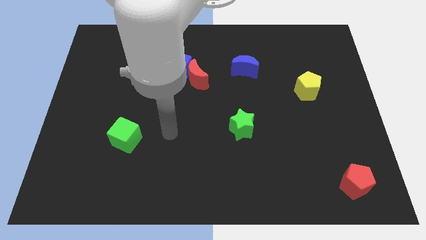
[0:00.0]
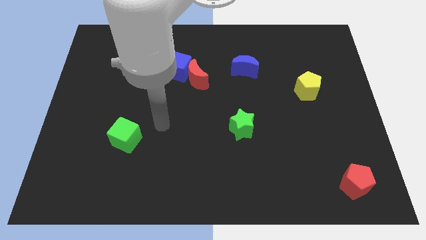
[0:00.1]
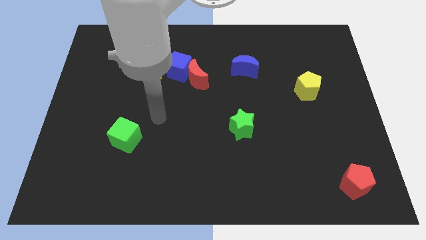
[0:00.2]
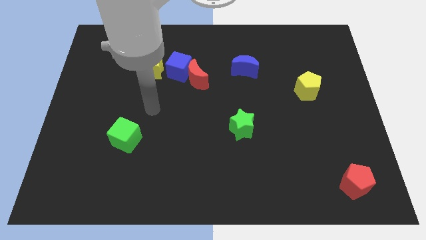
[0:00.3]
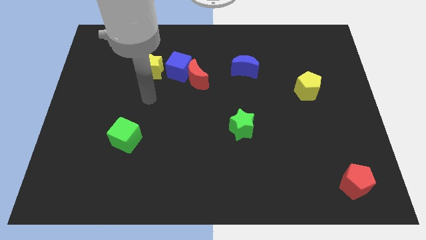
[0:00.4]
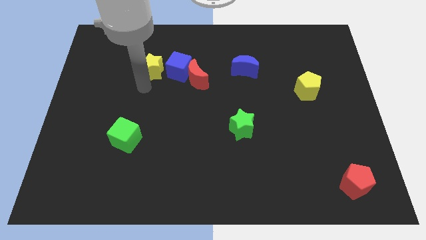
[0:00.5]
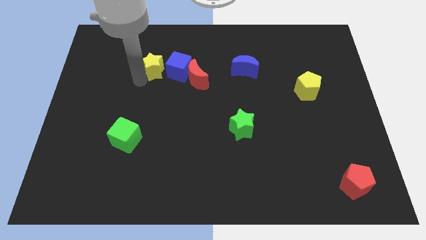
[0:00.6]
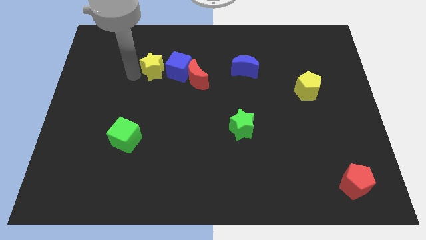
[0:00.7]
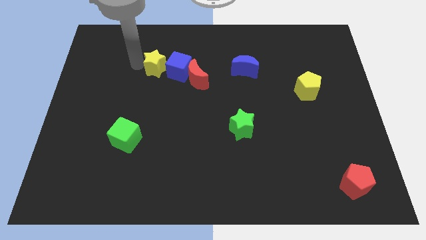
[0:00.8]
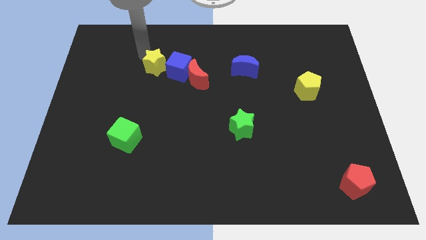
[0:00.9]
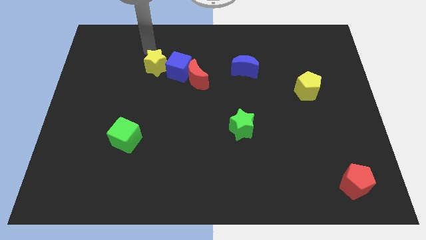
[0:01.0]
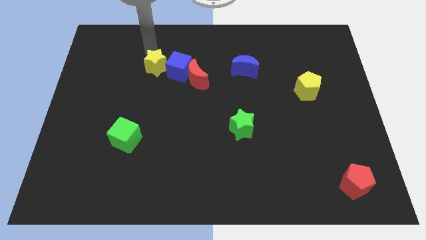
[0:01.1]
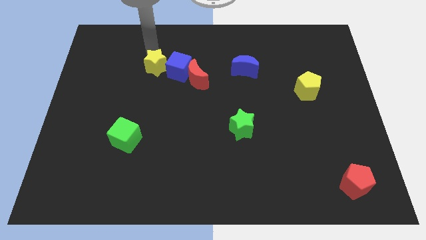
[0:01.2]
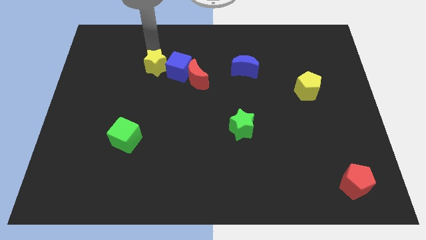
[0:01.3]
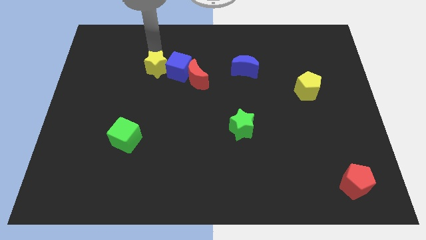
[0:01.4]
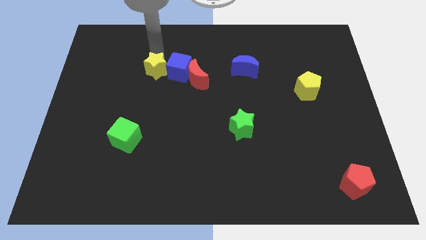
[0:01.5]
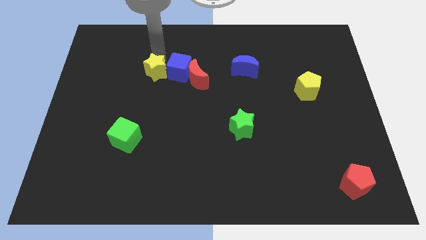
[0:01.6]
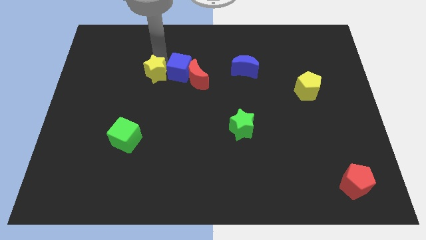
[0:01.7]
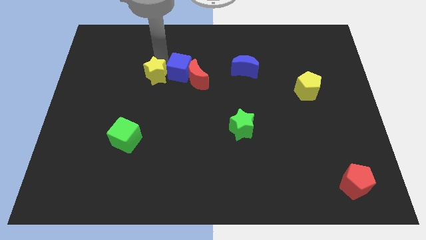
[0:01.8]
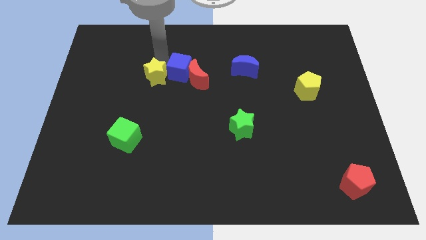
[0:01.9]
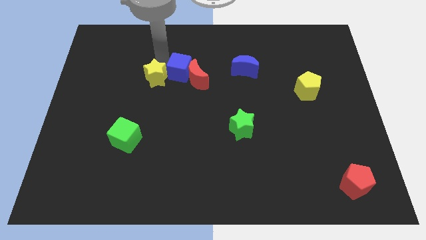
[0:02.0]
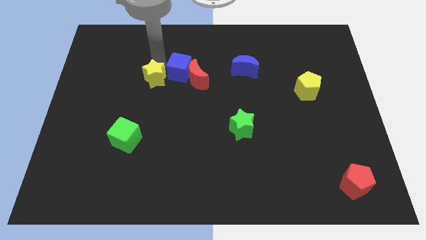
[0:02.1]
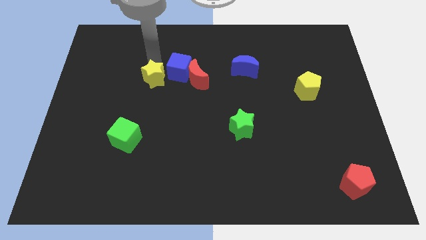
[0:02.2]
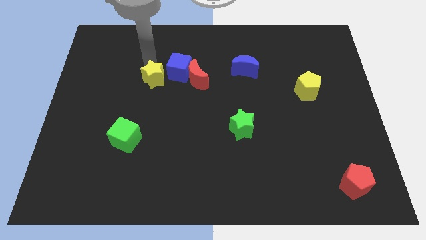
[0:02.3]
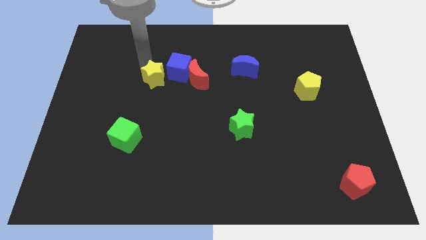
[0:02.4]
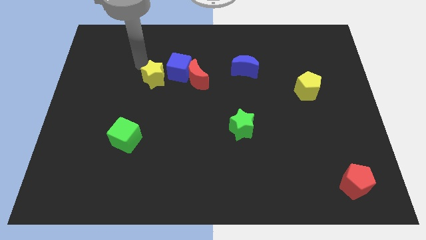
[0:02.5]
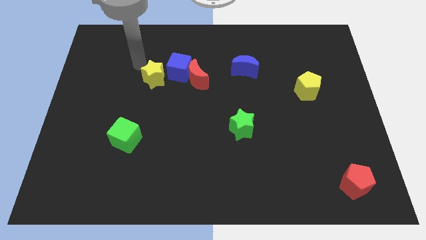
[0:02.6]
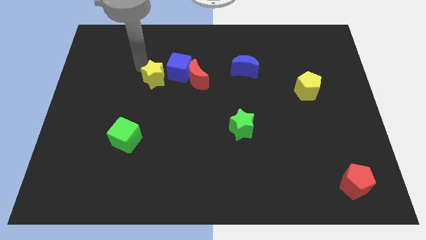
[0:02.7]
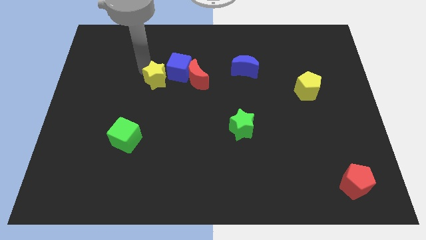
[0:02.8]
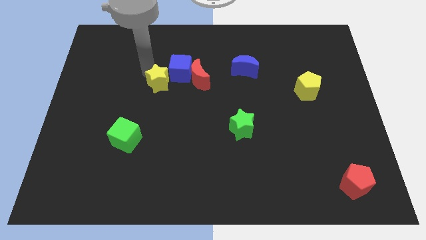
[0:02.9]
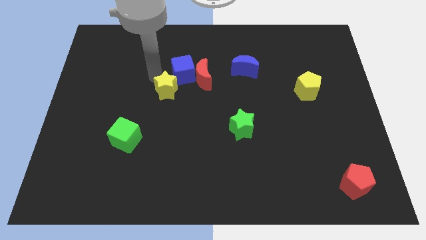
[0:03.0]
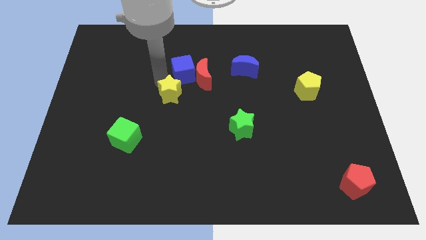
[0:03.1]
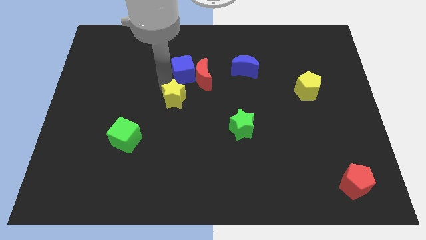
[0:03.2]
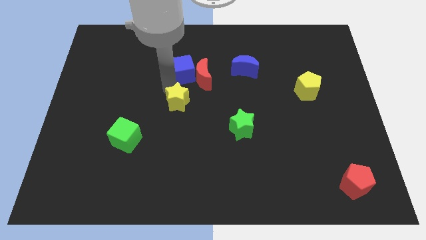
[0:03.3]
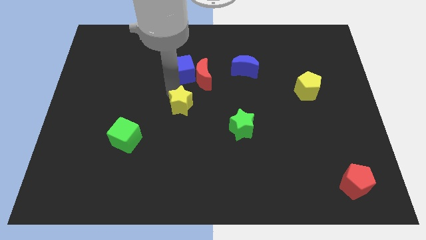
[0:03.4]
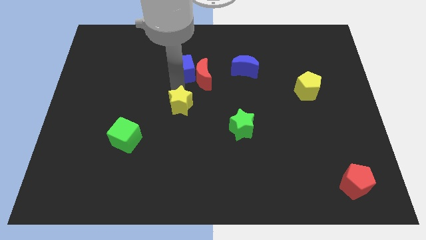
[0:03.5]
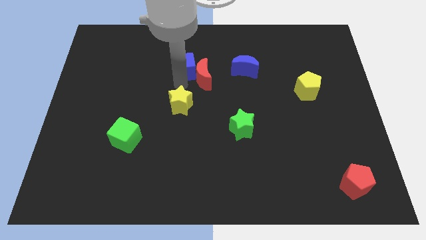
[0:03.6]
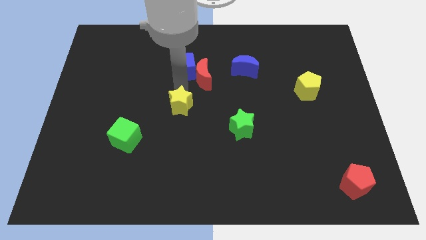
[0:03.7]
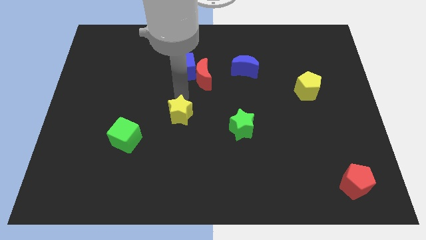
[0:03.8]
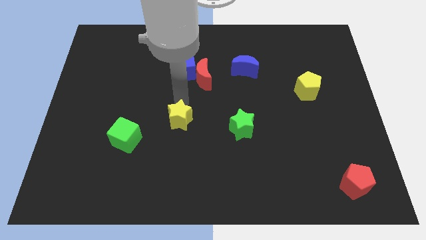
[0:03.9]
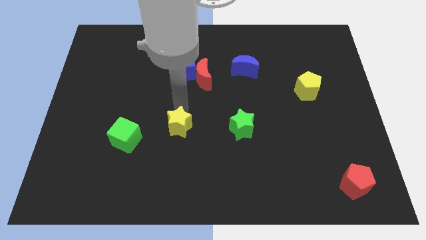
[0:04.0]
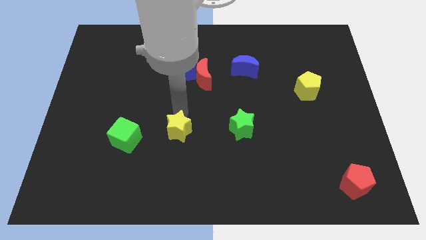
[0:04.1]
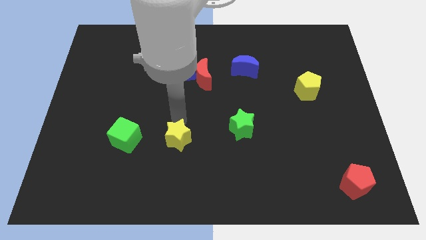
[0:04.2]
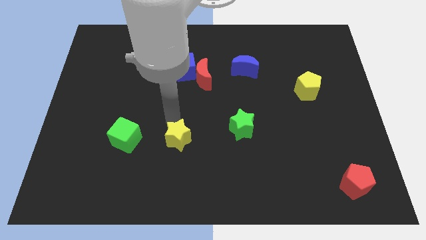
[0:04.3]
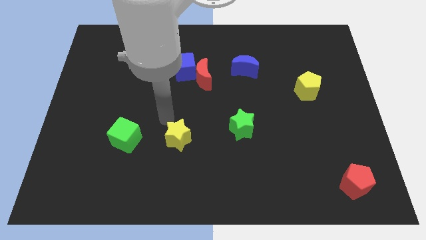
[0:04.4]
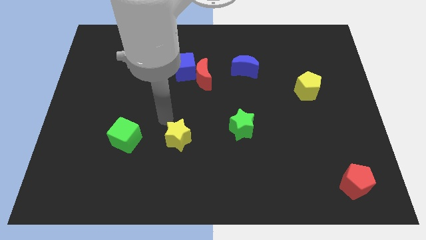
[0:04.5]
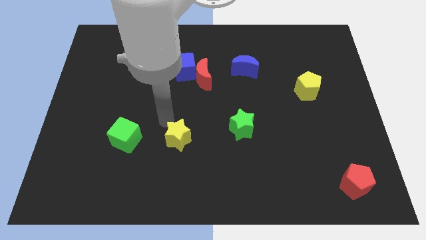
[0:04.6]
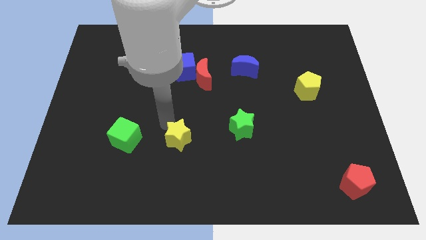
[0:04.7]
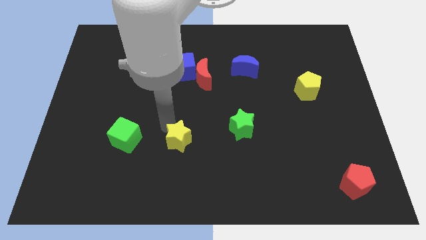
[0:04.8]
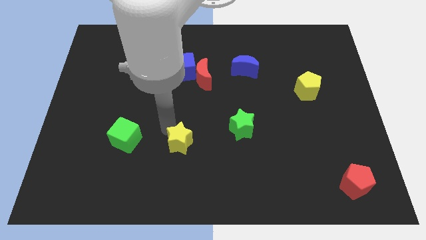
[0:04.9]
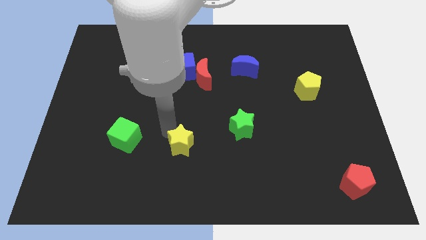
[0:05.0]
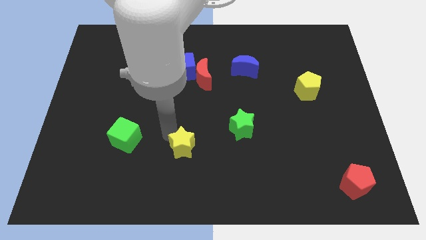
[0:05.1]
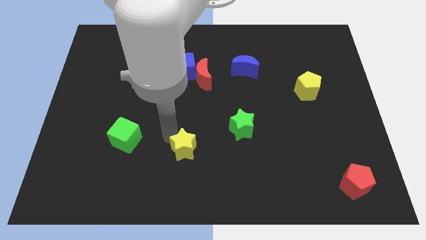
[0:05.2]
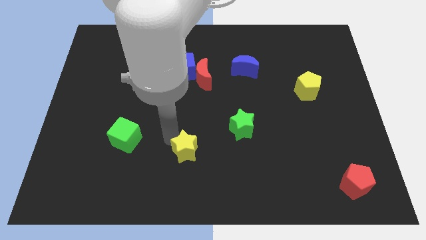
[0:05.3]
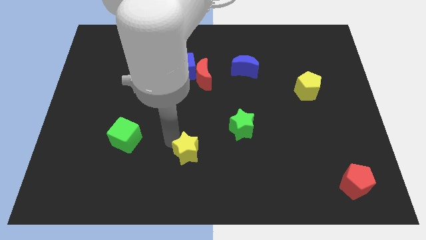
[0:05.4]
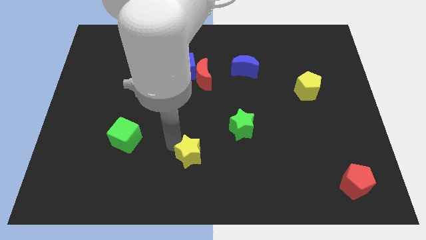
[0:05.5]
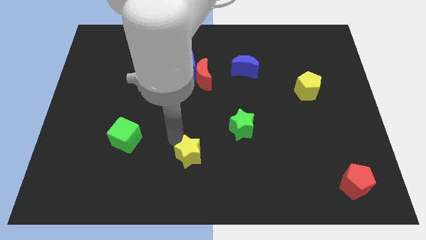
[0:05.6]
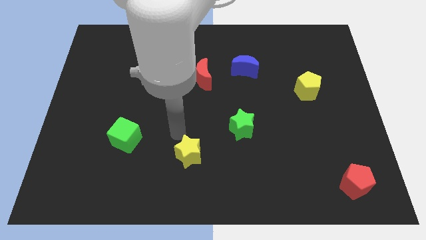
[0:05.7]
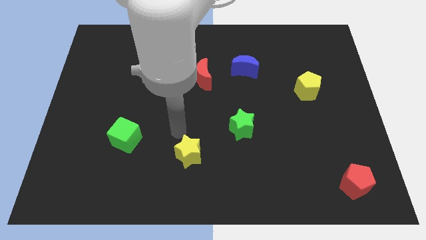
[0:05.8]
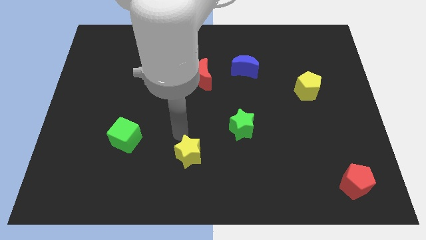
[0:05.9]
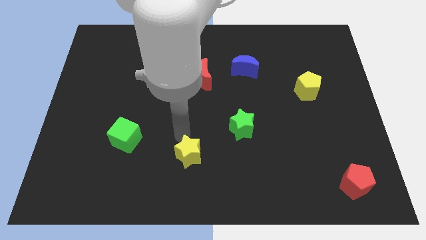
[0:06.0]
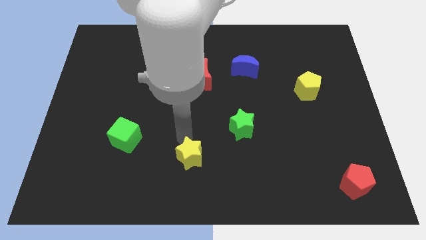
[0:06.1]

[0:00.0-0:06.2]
put the yellow star to the bottom

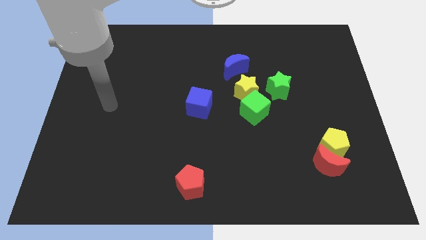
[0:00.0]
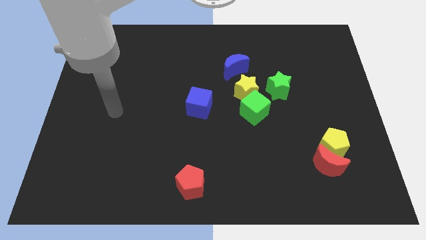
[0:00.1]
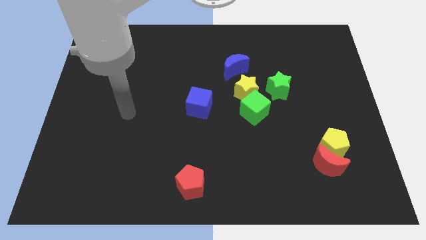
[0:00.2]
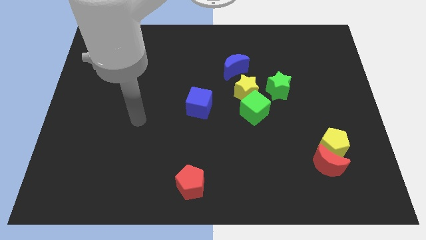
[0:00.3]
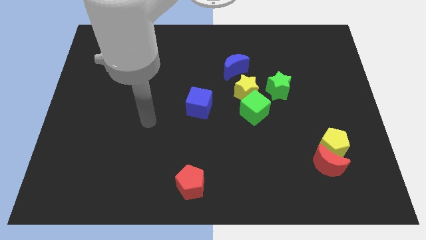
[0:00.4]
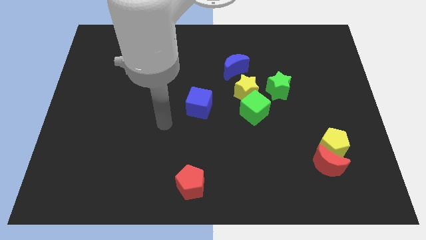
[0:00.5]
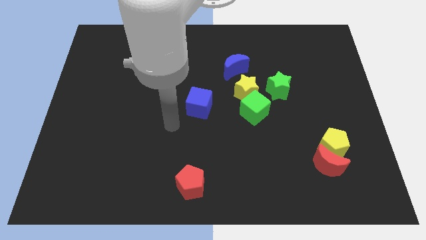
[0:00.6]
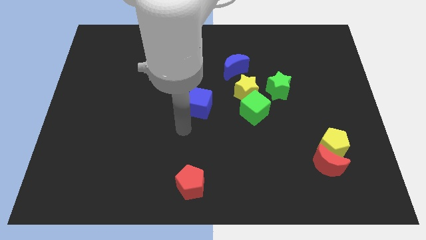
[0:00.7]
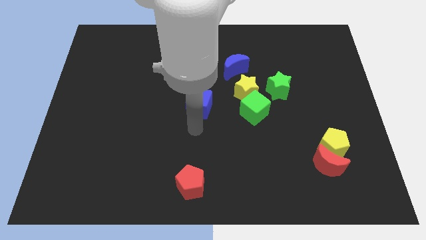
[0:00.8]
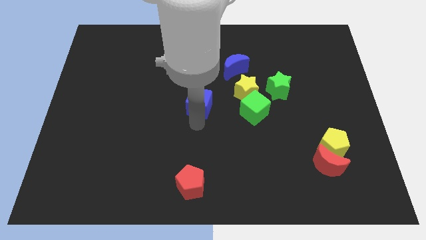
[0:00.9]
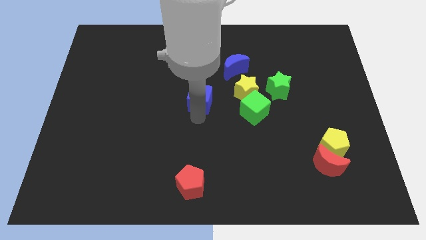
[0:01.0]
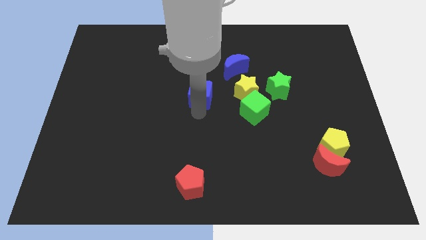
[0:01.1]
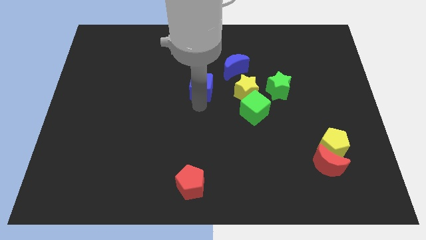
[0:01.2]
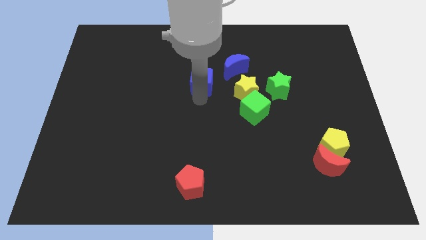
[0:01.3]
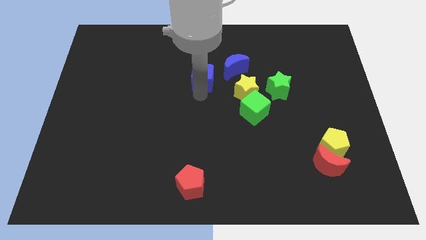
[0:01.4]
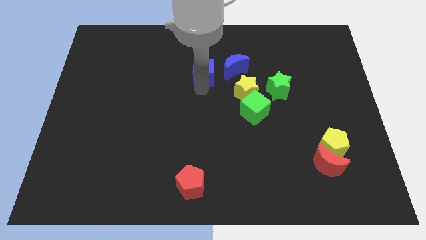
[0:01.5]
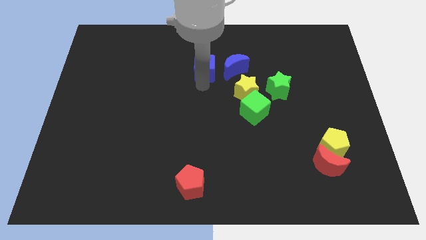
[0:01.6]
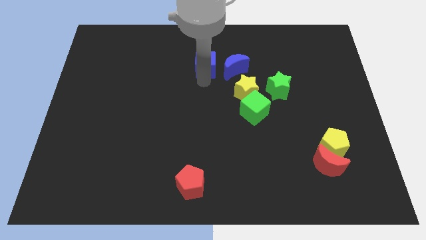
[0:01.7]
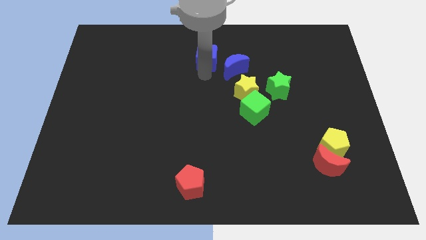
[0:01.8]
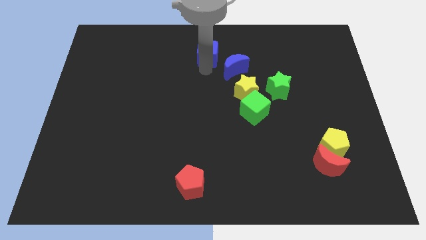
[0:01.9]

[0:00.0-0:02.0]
move the blue cube to the towards your base
